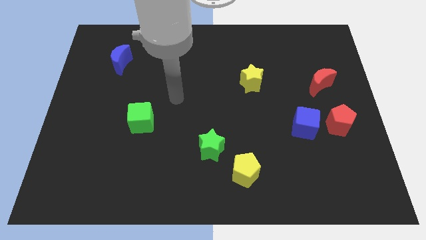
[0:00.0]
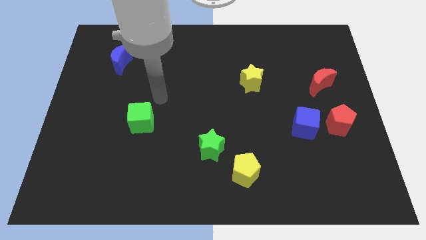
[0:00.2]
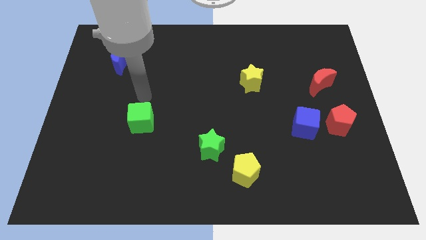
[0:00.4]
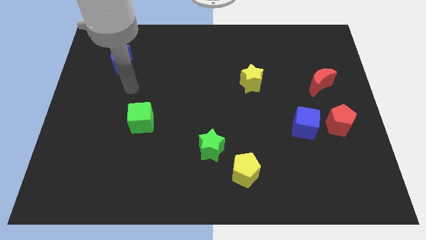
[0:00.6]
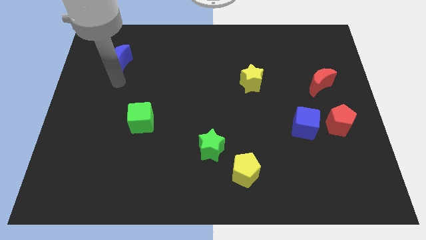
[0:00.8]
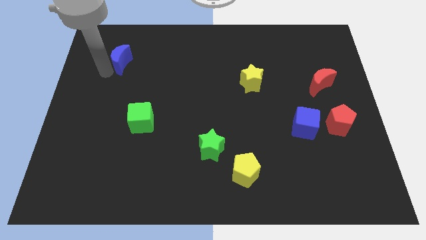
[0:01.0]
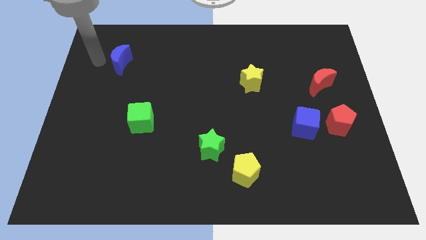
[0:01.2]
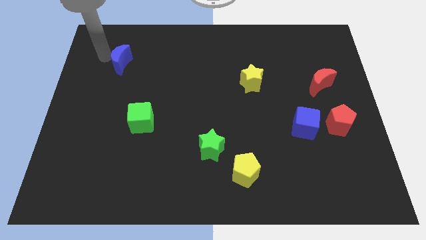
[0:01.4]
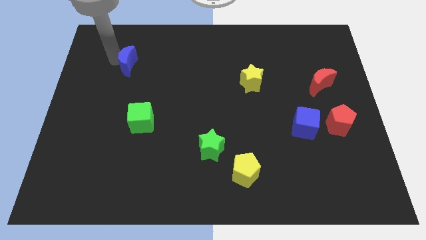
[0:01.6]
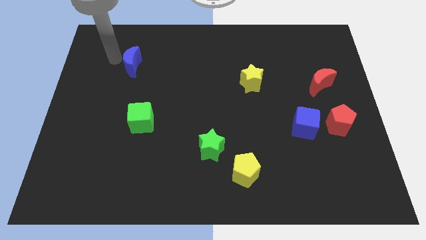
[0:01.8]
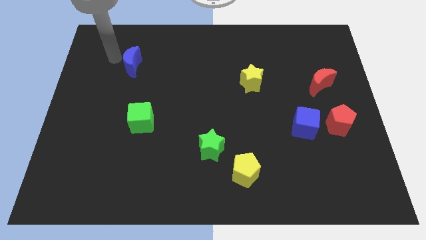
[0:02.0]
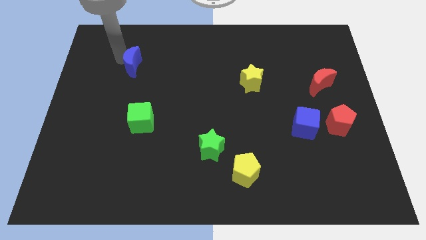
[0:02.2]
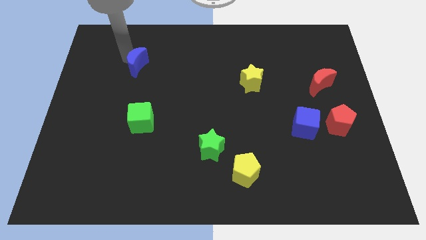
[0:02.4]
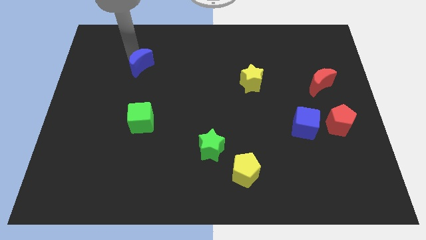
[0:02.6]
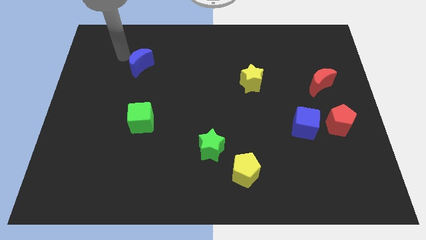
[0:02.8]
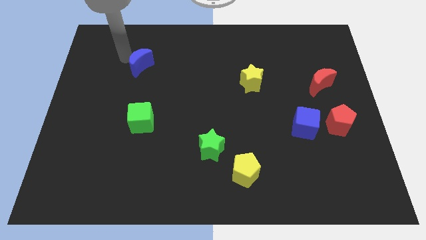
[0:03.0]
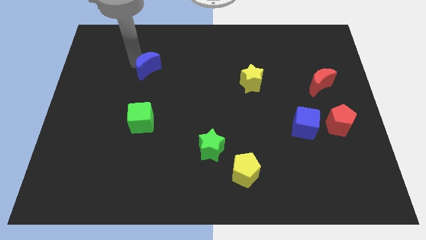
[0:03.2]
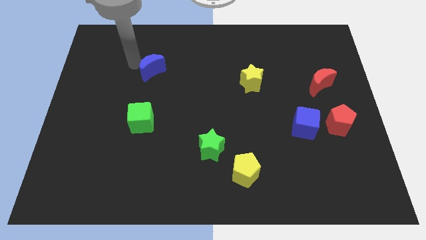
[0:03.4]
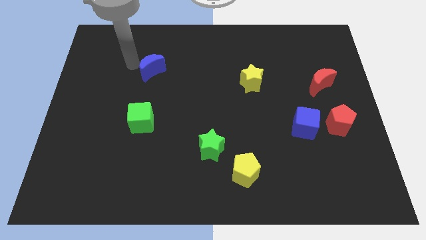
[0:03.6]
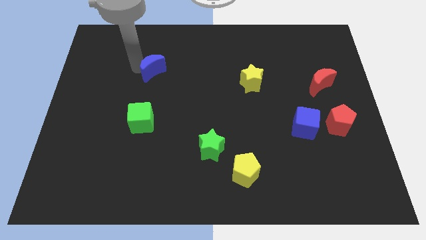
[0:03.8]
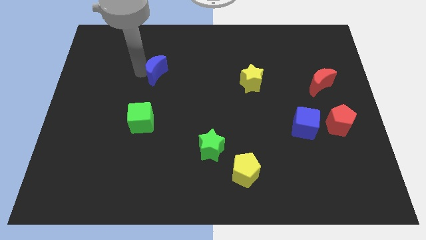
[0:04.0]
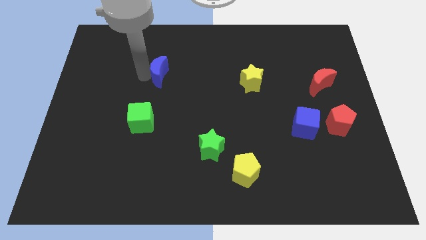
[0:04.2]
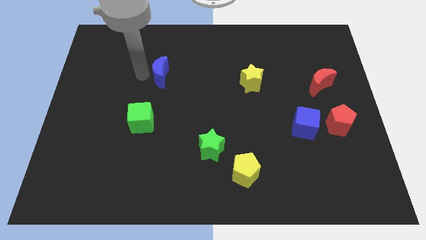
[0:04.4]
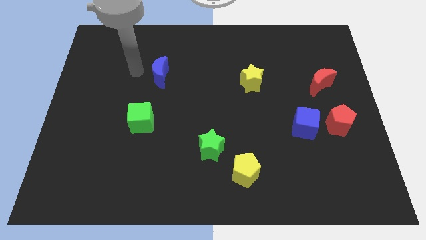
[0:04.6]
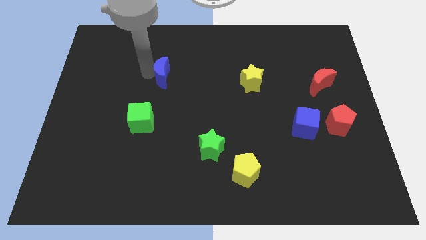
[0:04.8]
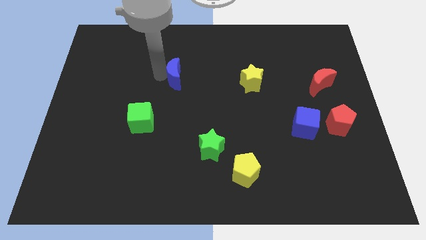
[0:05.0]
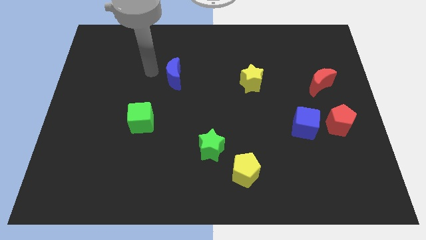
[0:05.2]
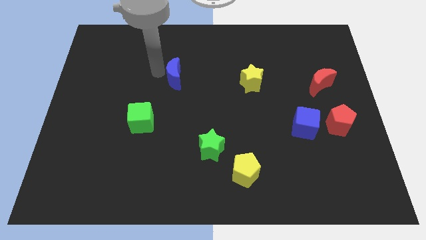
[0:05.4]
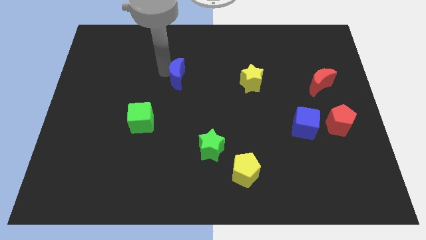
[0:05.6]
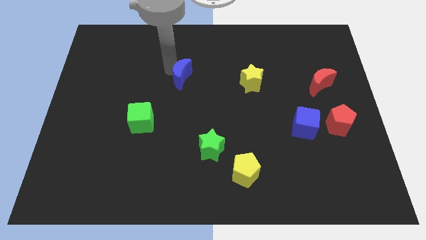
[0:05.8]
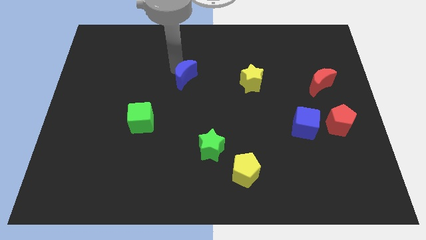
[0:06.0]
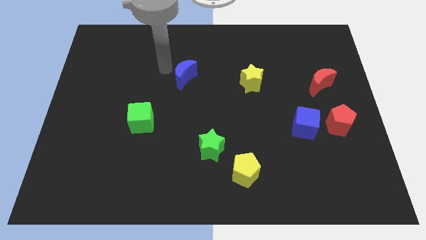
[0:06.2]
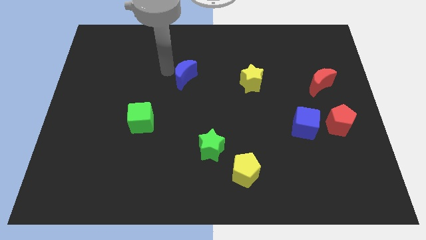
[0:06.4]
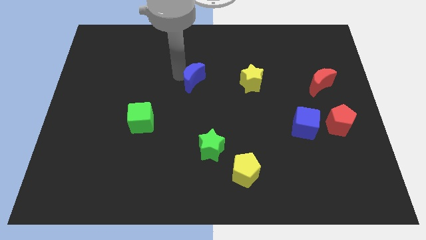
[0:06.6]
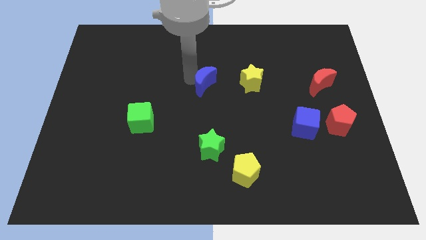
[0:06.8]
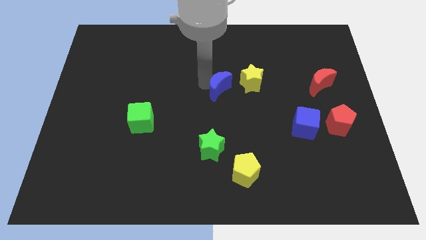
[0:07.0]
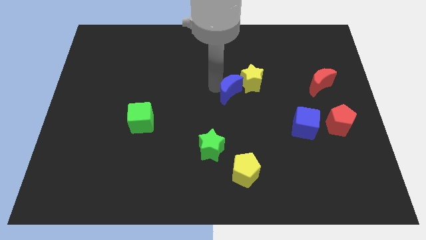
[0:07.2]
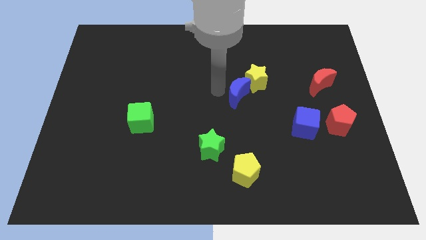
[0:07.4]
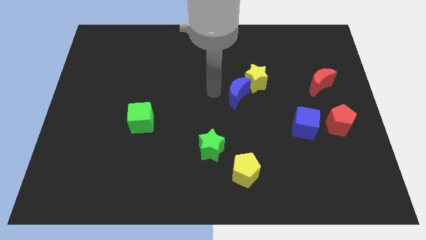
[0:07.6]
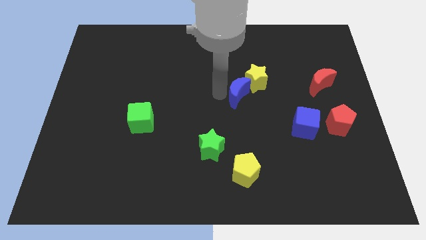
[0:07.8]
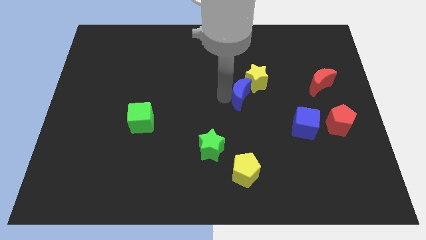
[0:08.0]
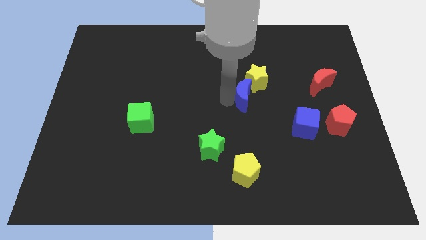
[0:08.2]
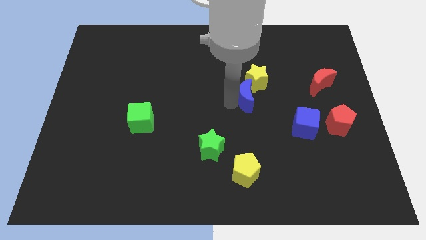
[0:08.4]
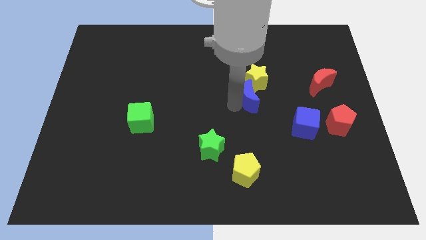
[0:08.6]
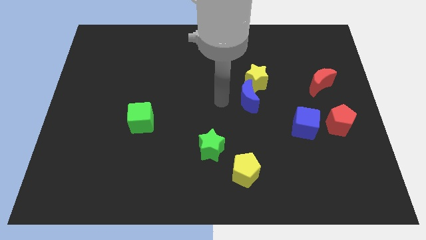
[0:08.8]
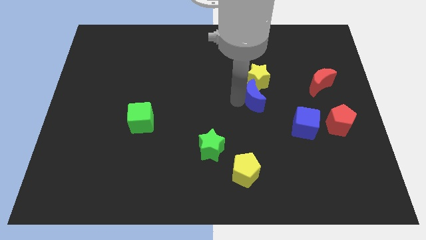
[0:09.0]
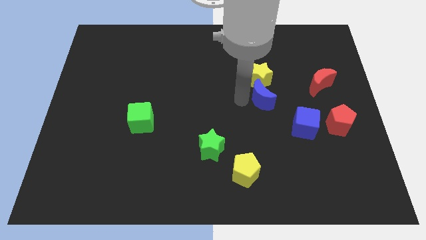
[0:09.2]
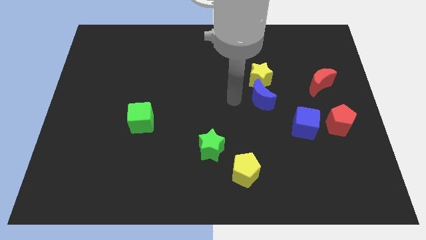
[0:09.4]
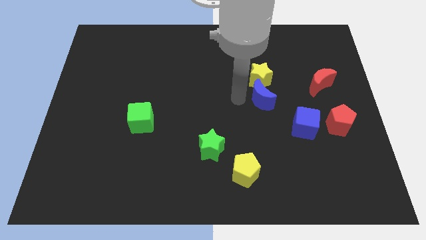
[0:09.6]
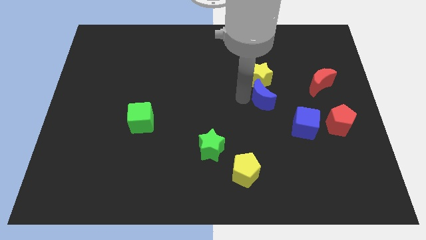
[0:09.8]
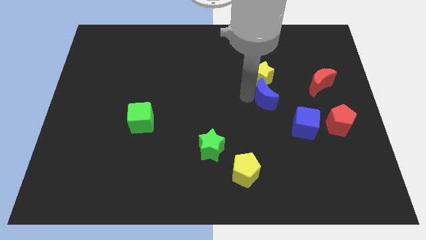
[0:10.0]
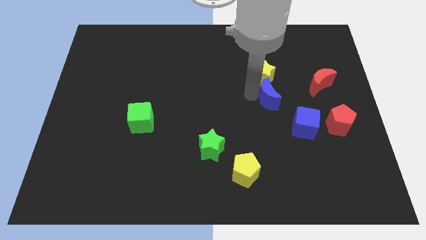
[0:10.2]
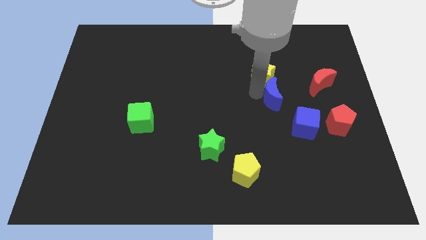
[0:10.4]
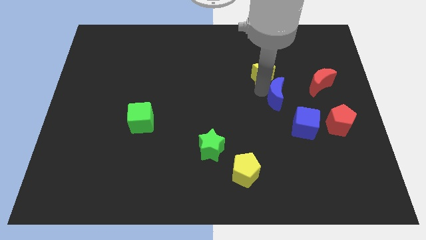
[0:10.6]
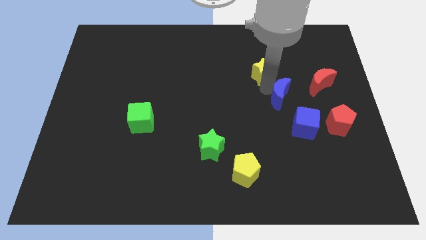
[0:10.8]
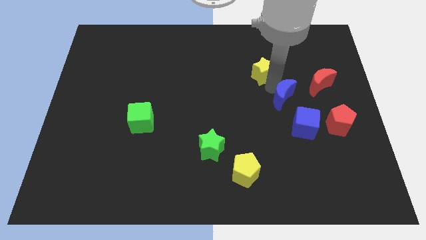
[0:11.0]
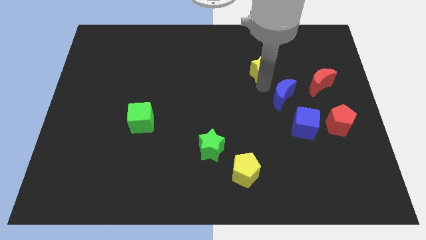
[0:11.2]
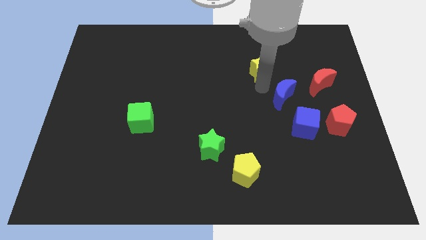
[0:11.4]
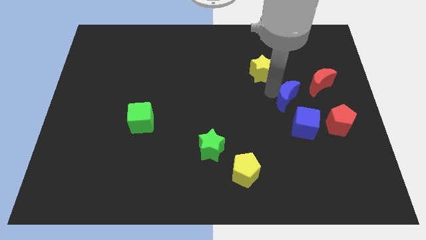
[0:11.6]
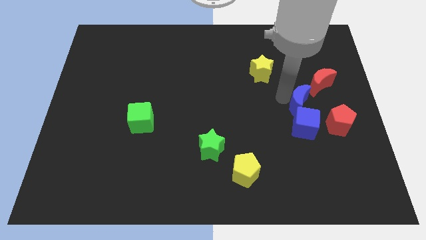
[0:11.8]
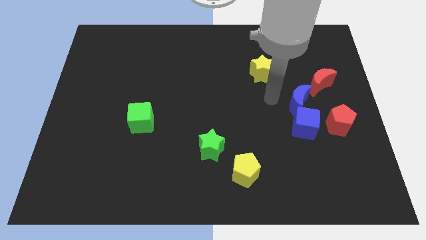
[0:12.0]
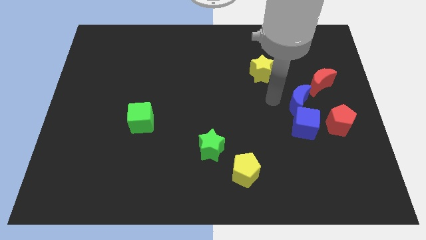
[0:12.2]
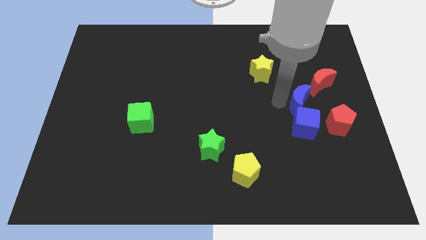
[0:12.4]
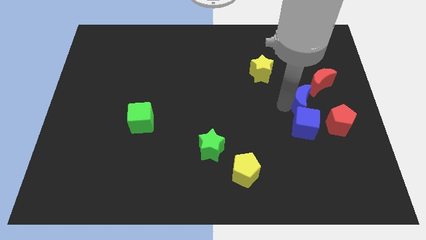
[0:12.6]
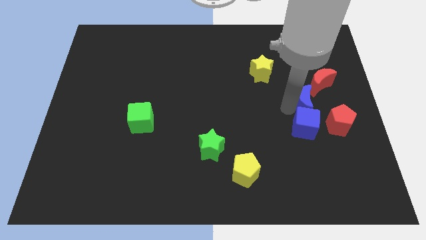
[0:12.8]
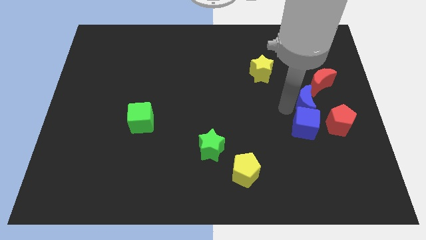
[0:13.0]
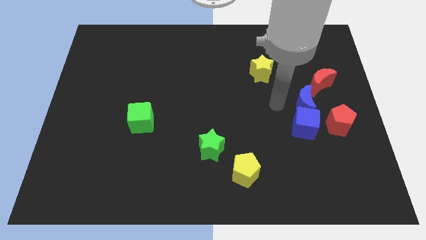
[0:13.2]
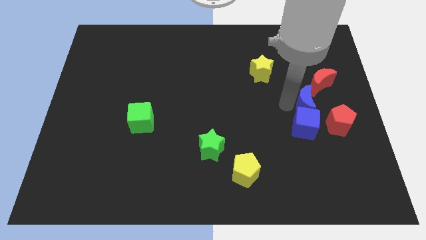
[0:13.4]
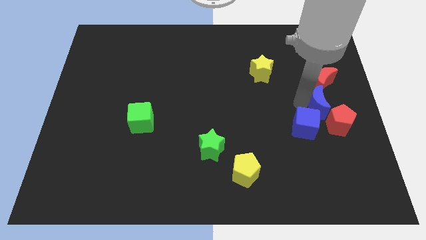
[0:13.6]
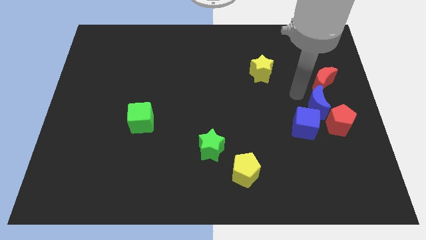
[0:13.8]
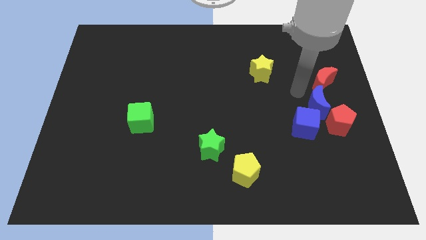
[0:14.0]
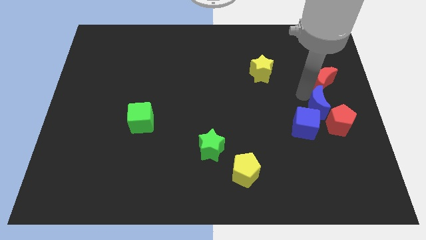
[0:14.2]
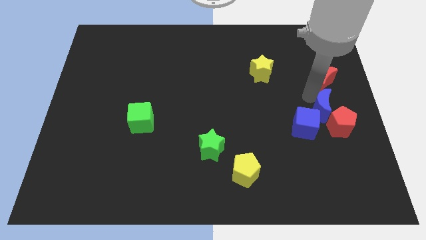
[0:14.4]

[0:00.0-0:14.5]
put the blue moon next to the red pentagon
